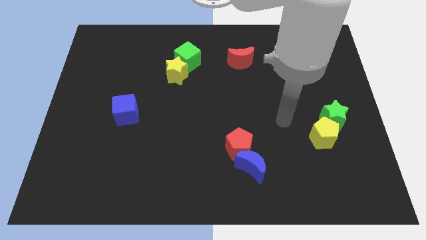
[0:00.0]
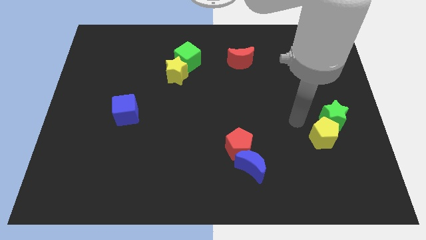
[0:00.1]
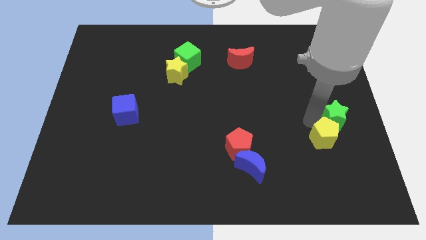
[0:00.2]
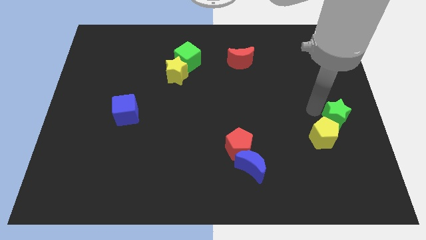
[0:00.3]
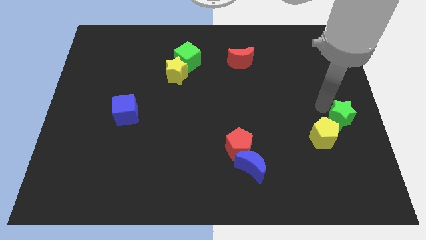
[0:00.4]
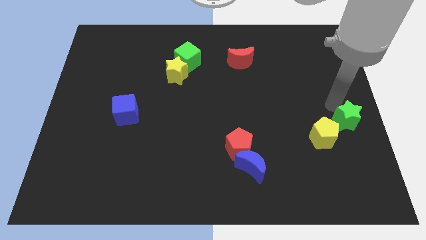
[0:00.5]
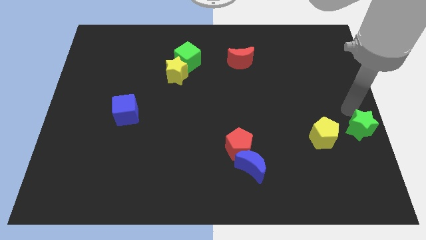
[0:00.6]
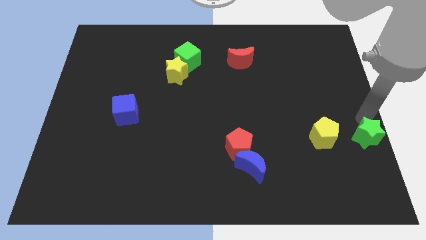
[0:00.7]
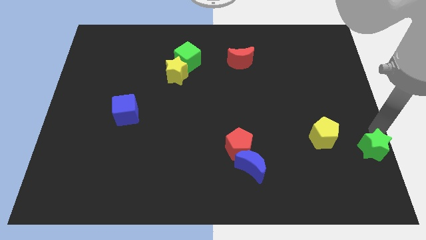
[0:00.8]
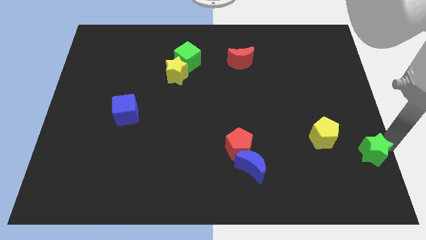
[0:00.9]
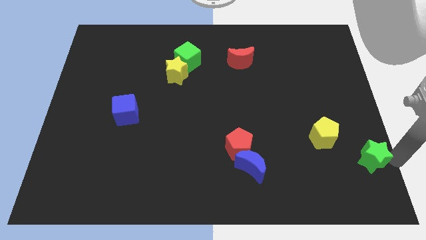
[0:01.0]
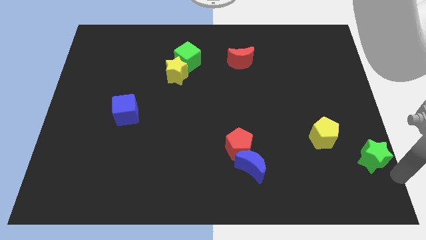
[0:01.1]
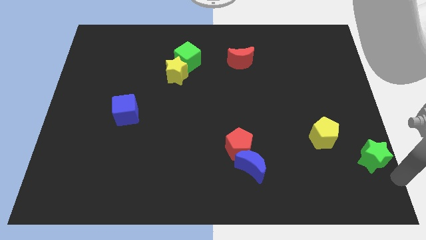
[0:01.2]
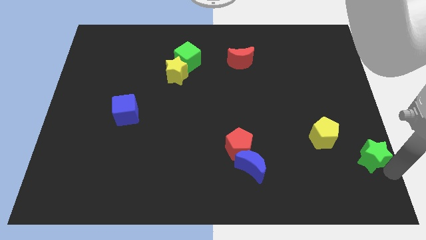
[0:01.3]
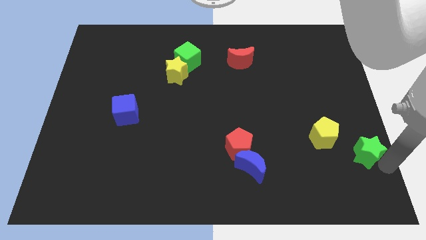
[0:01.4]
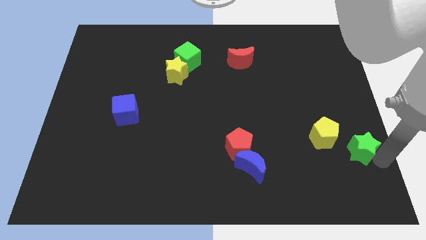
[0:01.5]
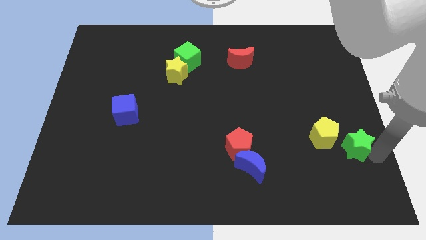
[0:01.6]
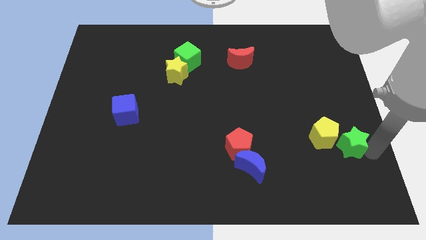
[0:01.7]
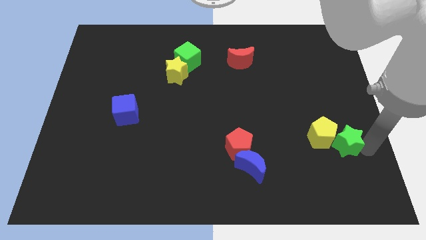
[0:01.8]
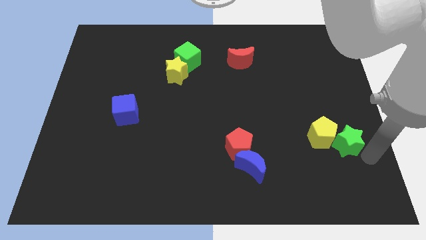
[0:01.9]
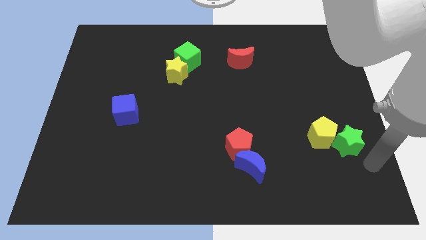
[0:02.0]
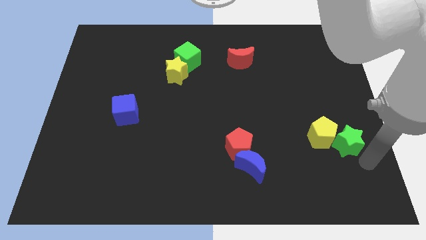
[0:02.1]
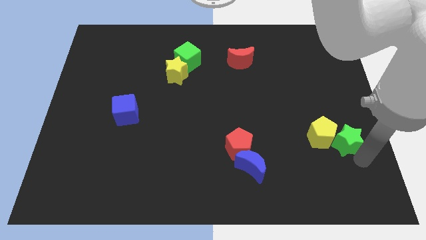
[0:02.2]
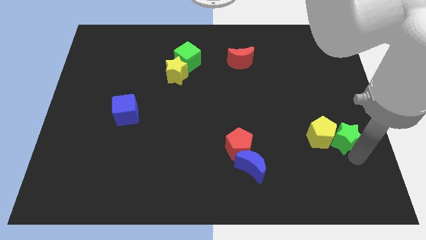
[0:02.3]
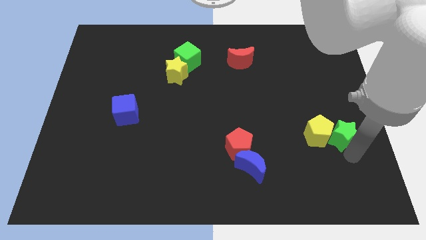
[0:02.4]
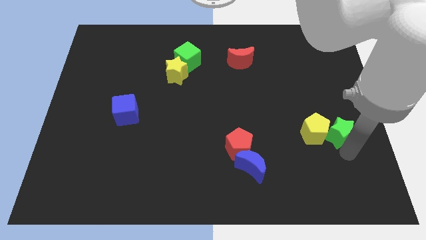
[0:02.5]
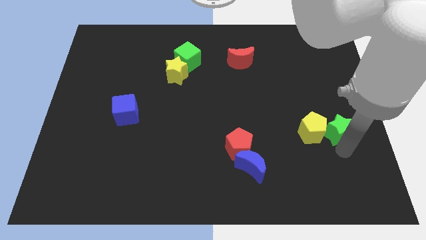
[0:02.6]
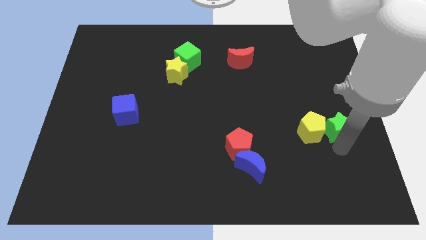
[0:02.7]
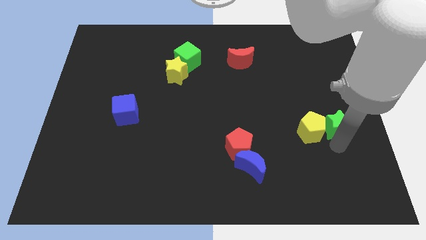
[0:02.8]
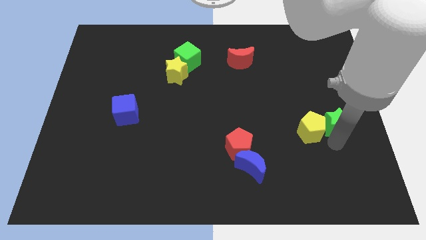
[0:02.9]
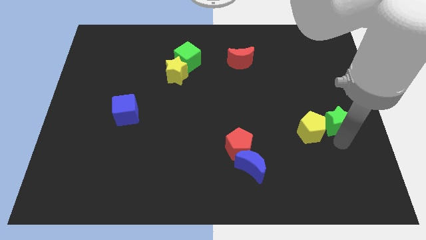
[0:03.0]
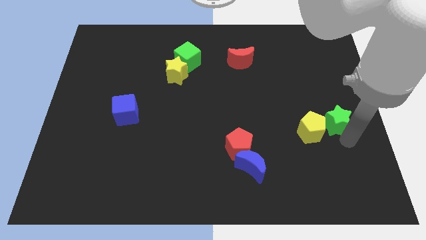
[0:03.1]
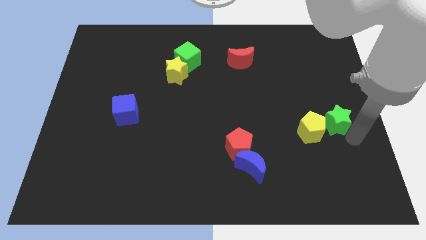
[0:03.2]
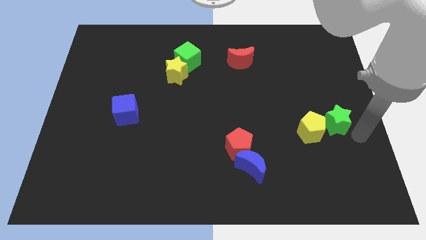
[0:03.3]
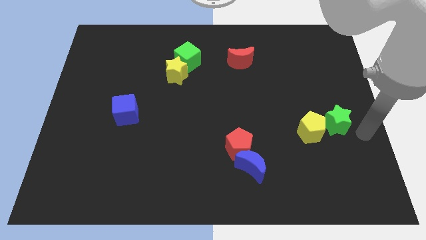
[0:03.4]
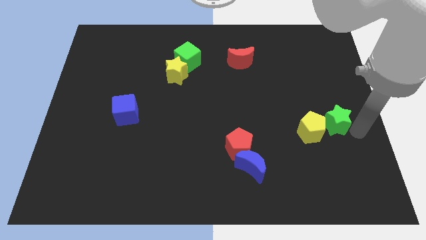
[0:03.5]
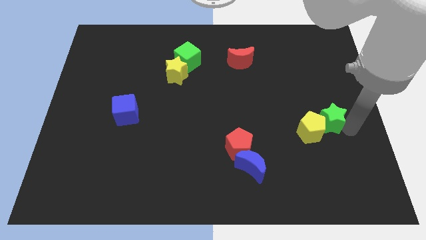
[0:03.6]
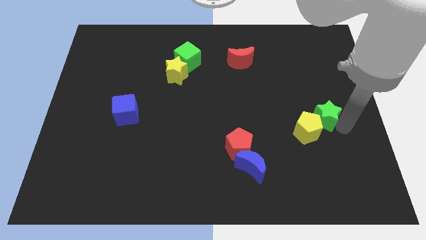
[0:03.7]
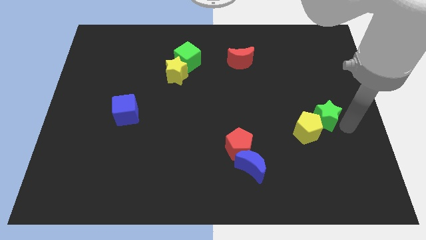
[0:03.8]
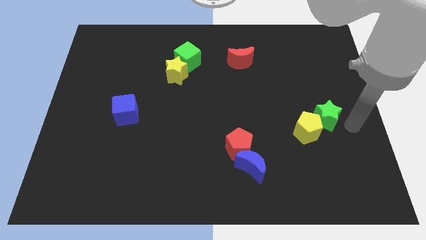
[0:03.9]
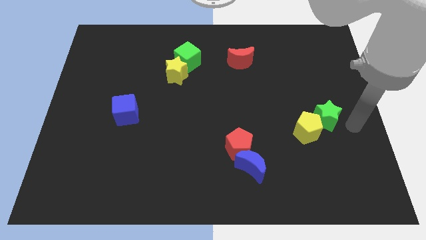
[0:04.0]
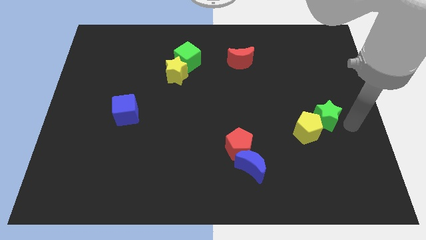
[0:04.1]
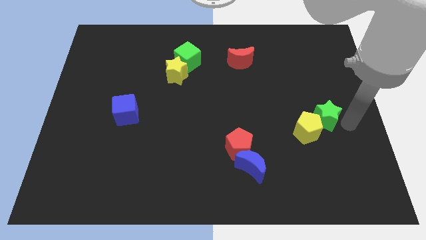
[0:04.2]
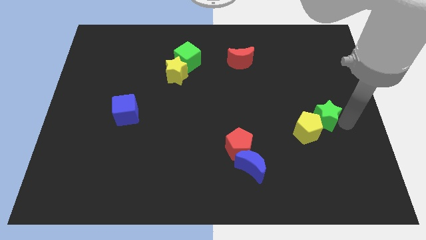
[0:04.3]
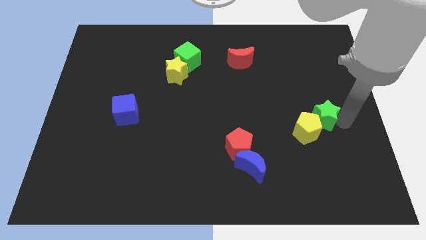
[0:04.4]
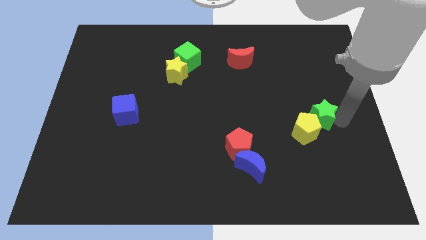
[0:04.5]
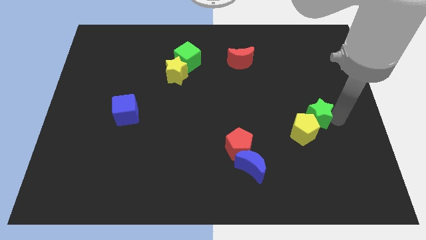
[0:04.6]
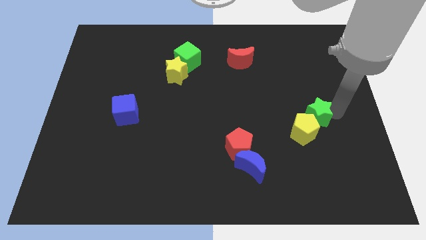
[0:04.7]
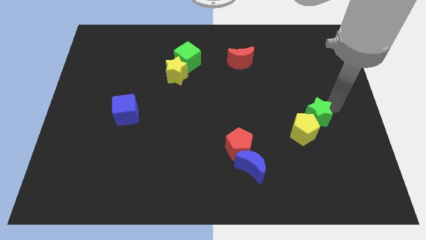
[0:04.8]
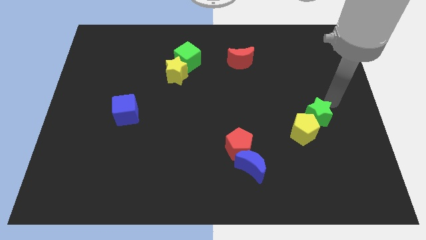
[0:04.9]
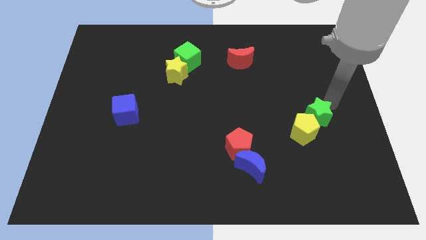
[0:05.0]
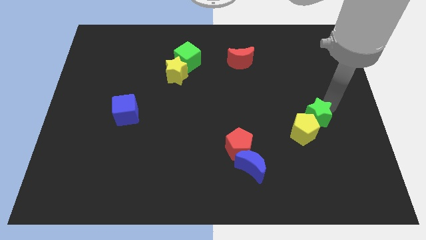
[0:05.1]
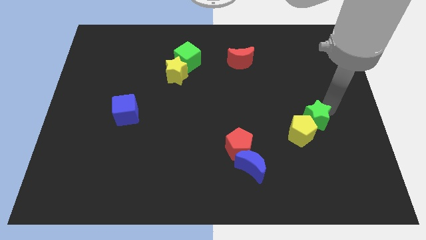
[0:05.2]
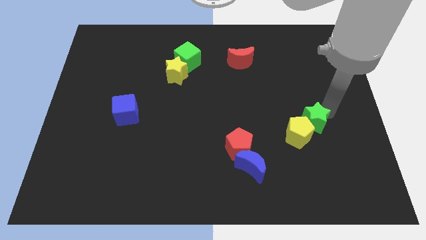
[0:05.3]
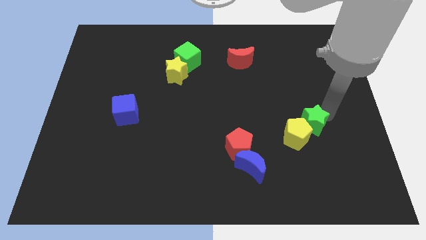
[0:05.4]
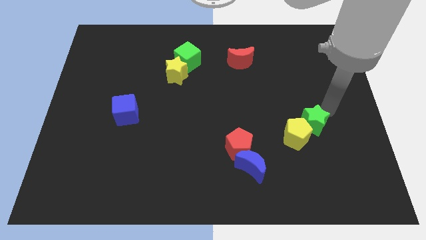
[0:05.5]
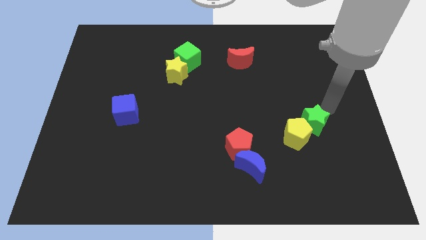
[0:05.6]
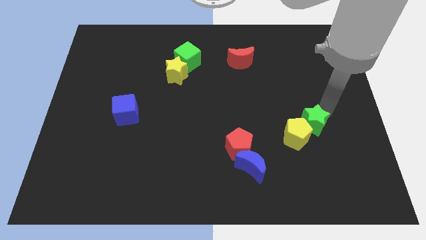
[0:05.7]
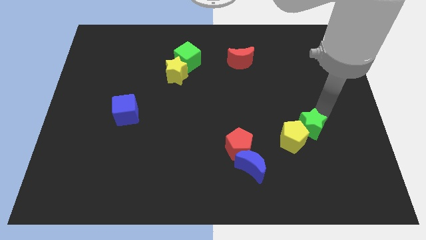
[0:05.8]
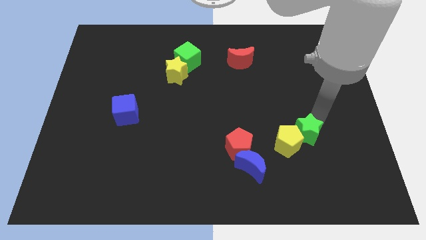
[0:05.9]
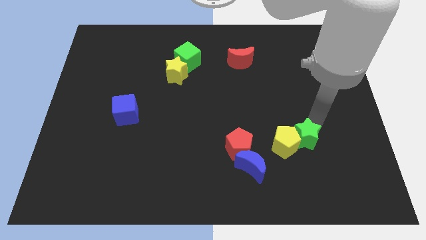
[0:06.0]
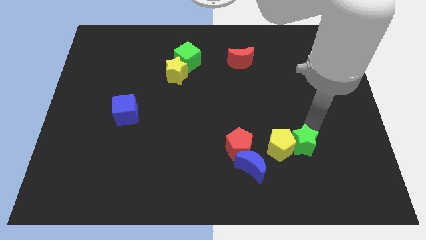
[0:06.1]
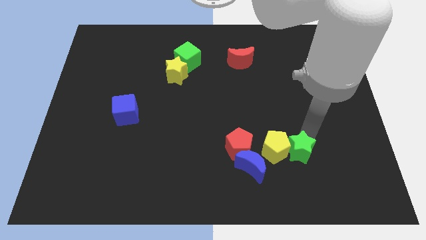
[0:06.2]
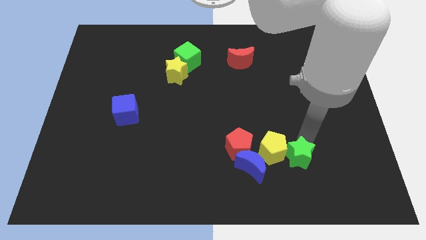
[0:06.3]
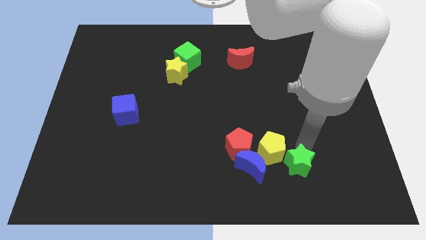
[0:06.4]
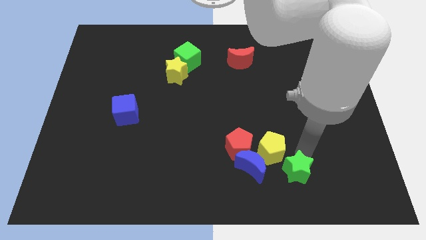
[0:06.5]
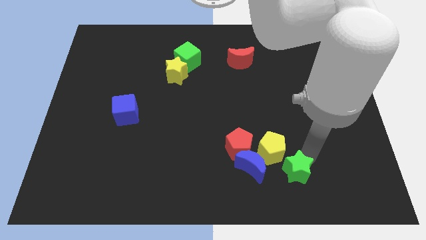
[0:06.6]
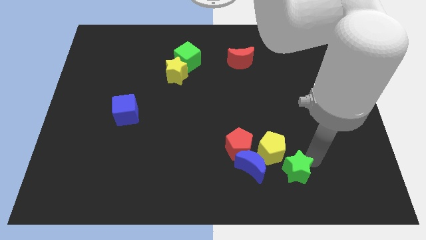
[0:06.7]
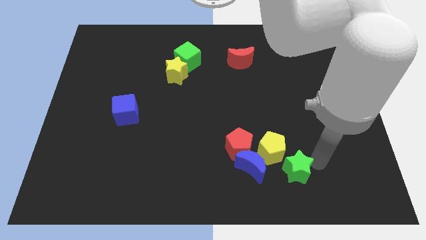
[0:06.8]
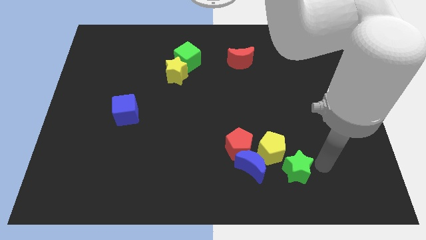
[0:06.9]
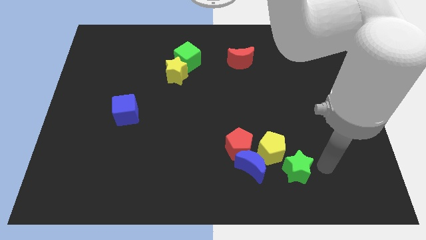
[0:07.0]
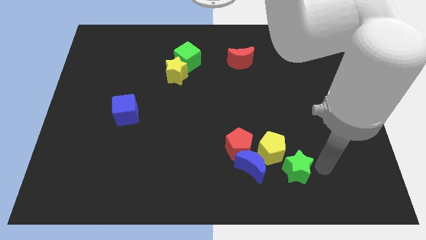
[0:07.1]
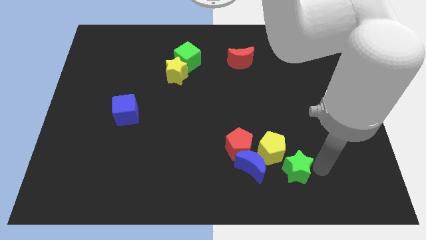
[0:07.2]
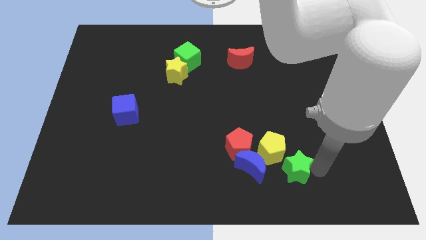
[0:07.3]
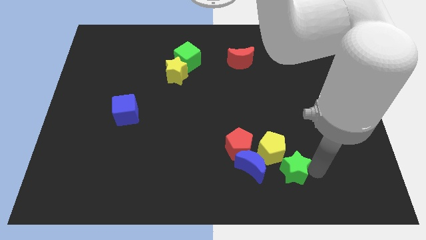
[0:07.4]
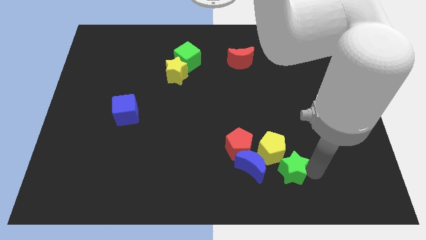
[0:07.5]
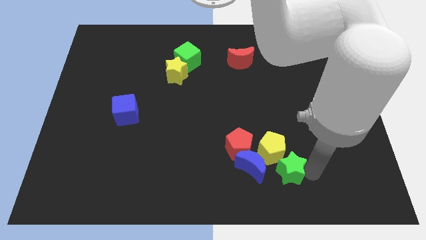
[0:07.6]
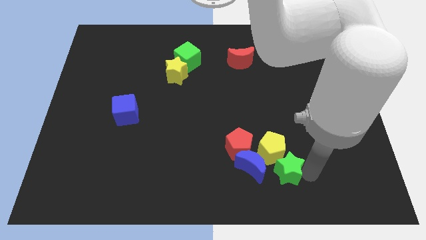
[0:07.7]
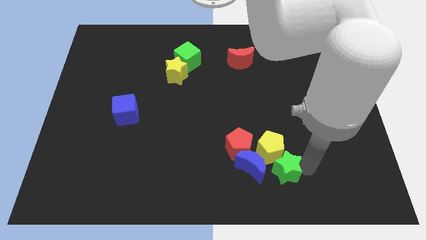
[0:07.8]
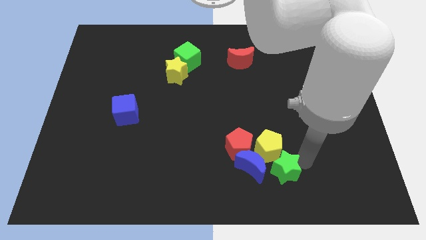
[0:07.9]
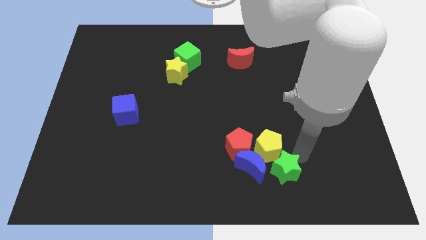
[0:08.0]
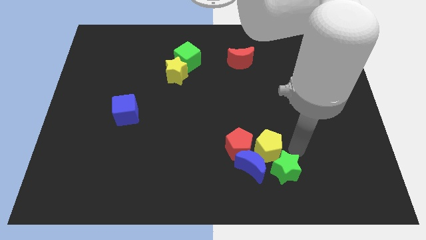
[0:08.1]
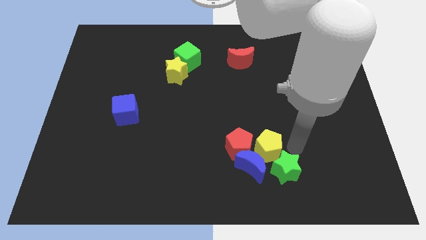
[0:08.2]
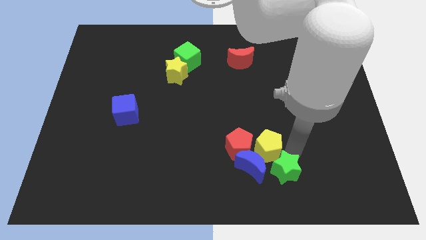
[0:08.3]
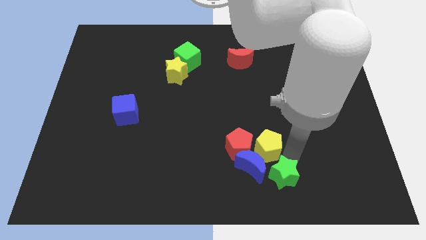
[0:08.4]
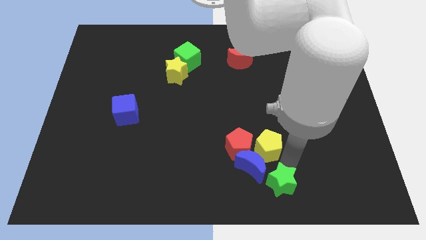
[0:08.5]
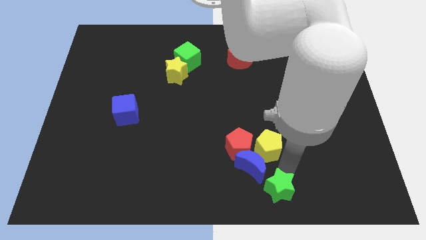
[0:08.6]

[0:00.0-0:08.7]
move the green star to the bottom
